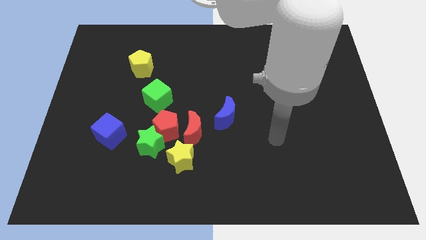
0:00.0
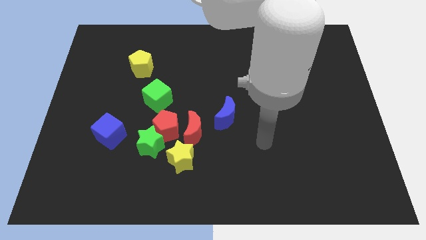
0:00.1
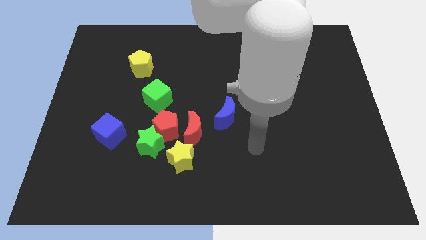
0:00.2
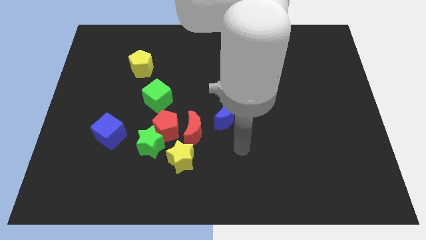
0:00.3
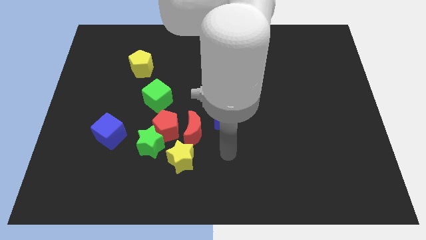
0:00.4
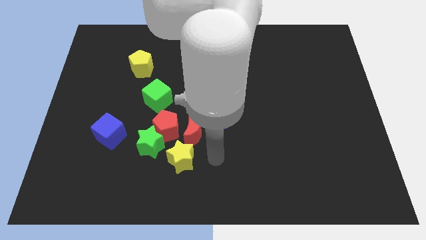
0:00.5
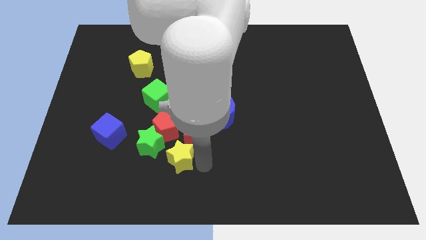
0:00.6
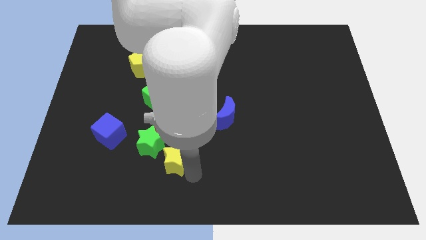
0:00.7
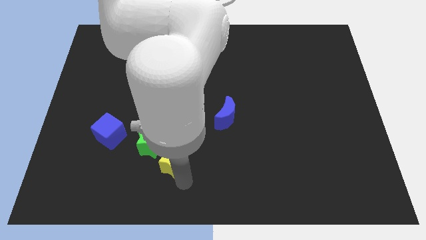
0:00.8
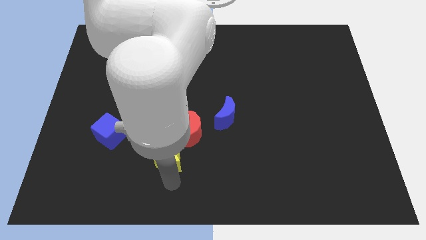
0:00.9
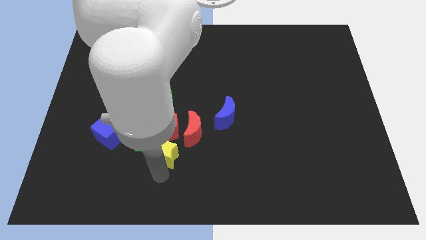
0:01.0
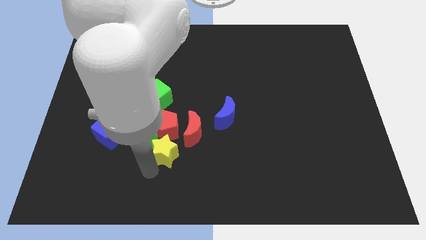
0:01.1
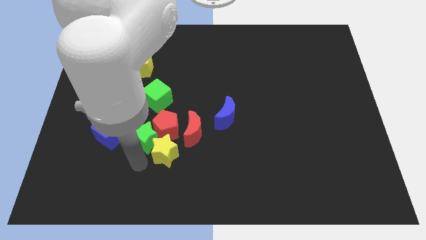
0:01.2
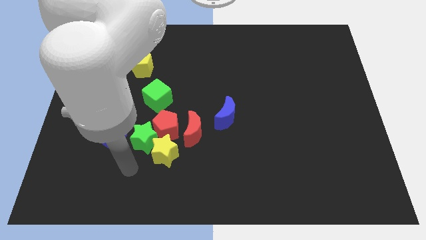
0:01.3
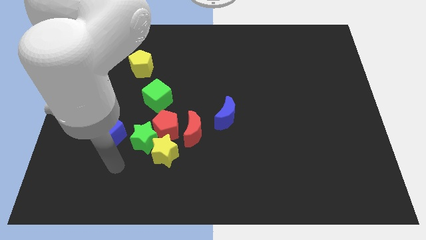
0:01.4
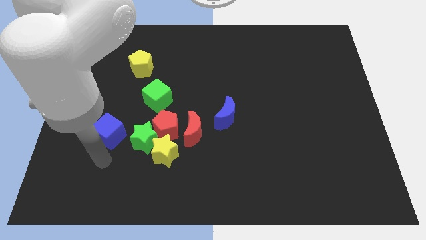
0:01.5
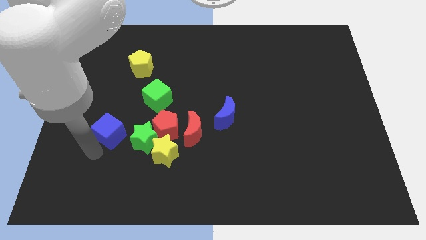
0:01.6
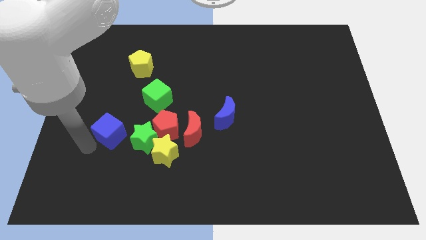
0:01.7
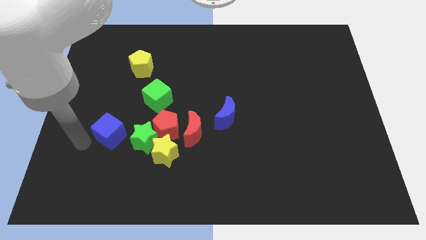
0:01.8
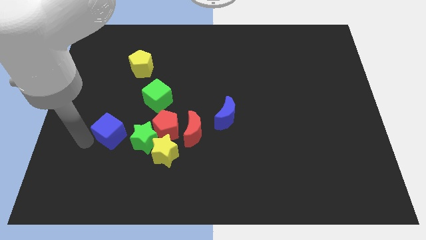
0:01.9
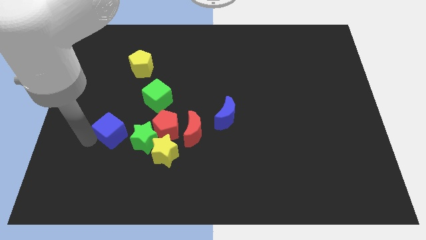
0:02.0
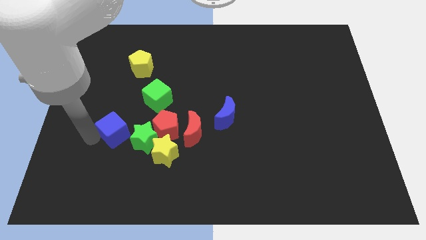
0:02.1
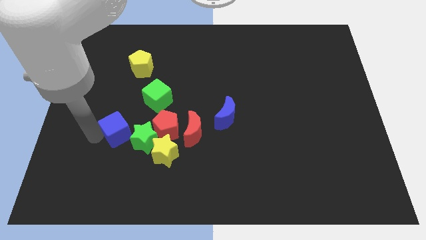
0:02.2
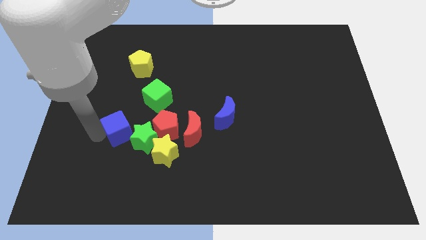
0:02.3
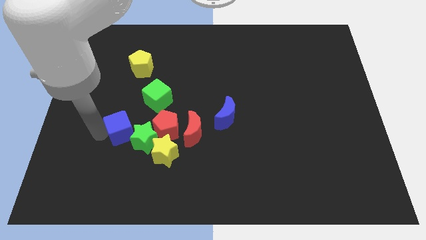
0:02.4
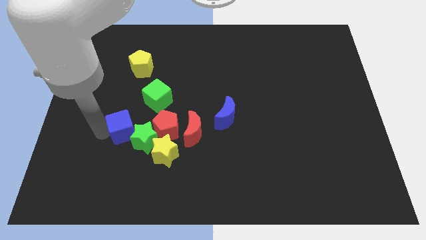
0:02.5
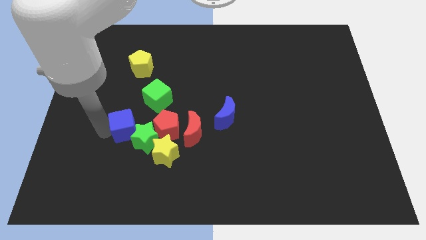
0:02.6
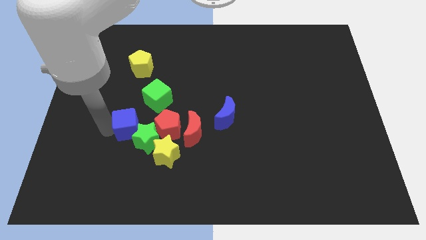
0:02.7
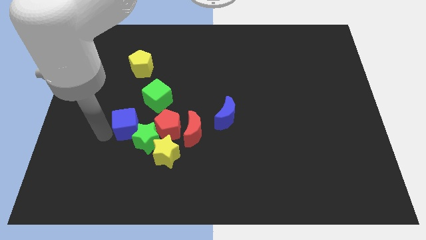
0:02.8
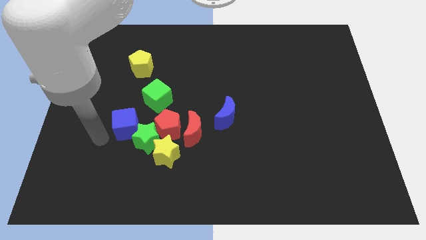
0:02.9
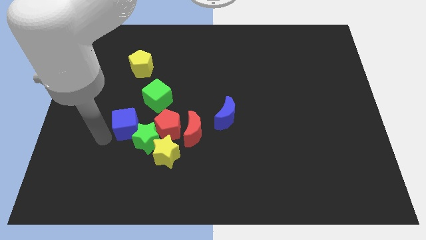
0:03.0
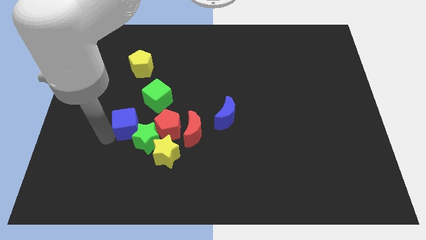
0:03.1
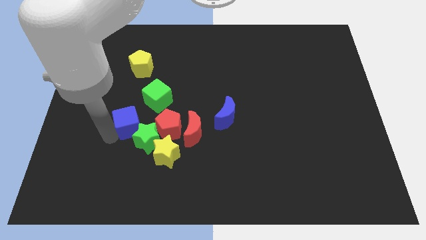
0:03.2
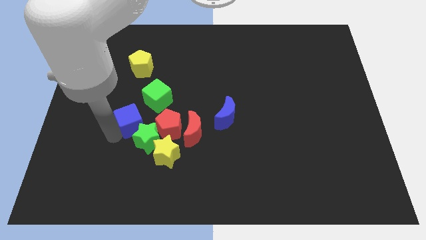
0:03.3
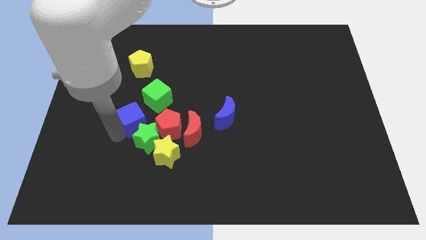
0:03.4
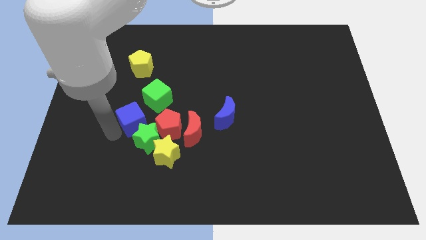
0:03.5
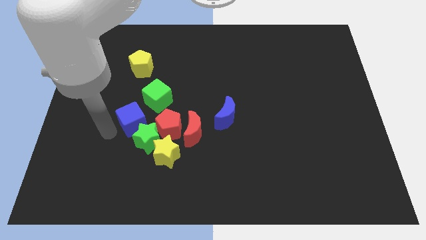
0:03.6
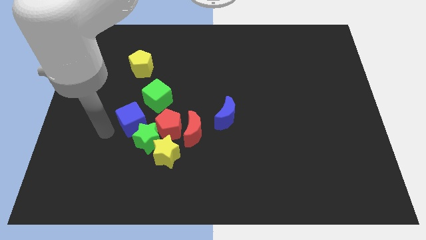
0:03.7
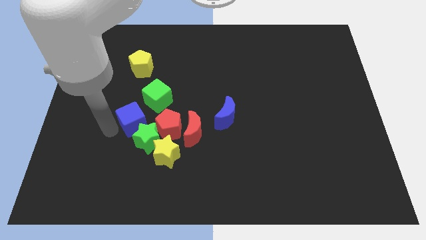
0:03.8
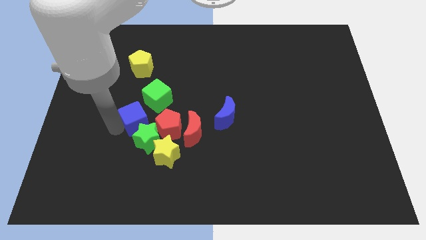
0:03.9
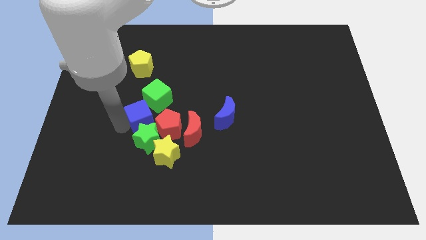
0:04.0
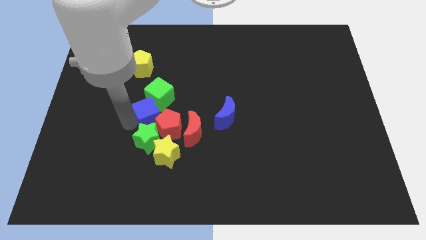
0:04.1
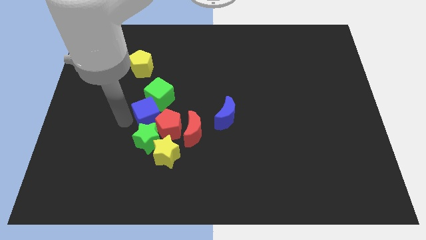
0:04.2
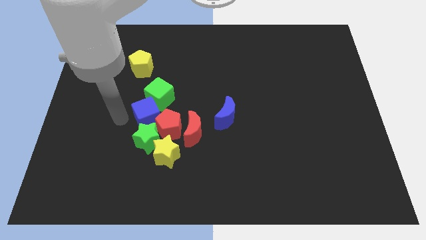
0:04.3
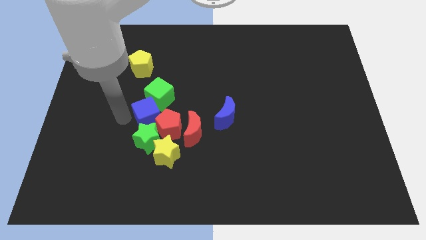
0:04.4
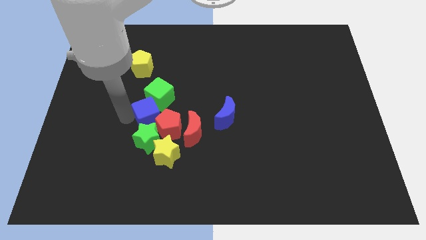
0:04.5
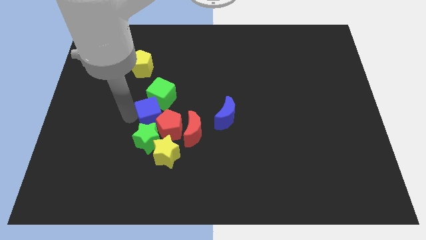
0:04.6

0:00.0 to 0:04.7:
put the blue cube to the top side of the yellow star

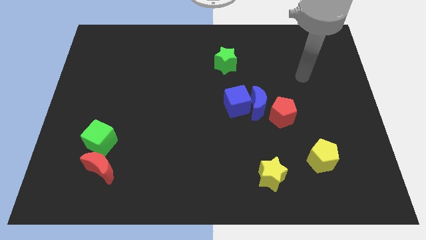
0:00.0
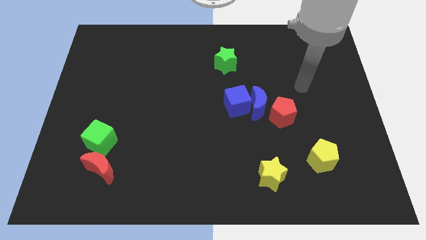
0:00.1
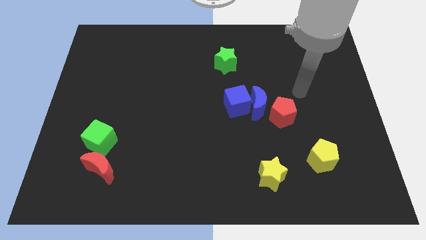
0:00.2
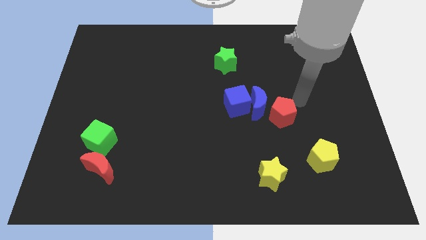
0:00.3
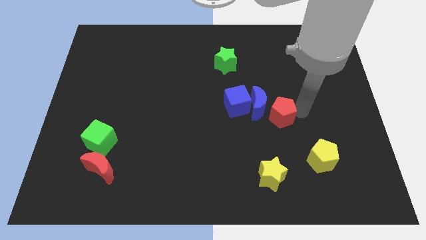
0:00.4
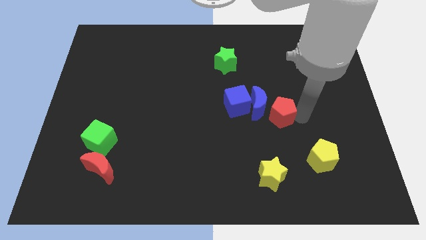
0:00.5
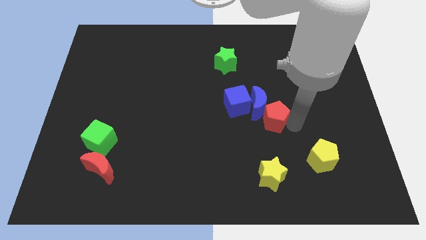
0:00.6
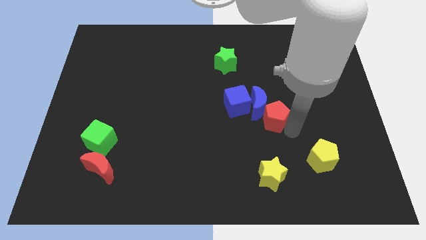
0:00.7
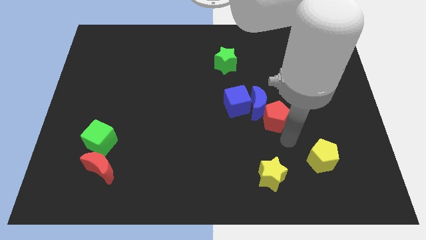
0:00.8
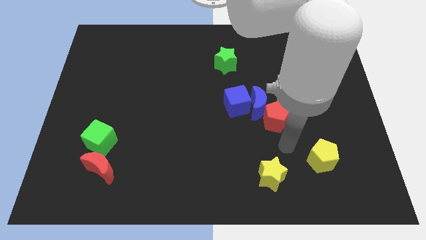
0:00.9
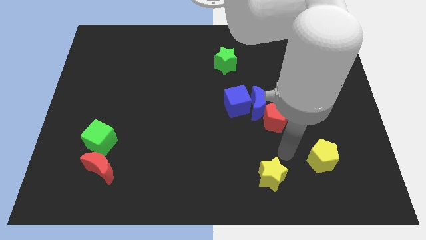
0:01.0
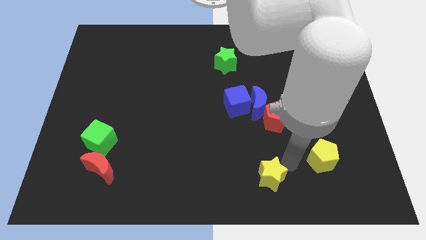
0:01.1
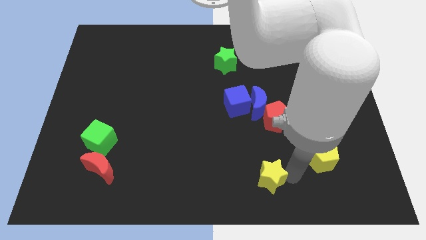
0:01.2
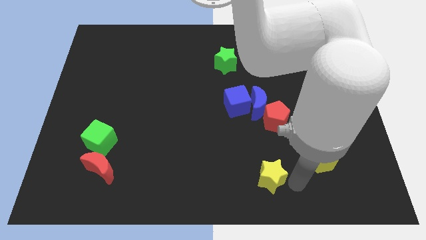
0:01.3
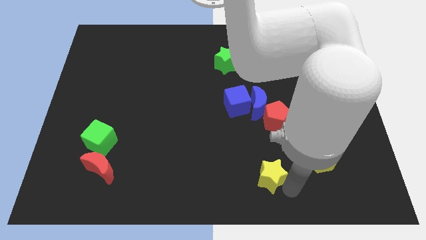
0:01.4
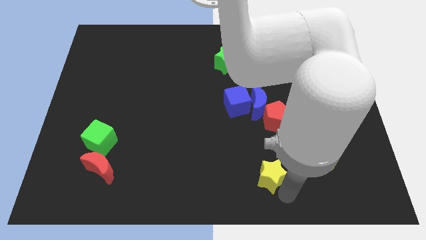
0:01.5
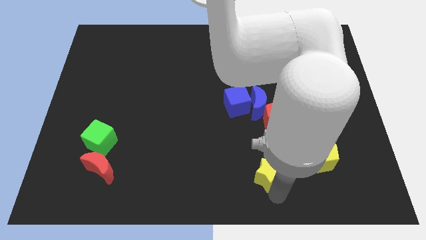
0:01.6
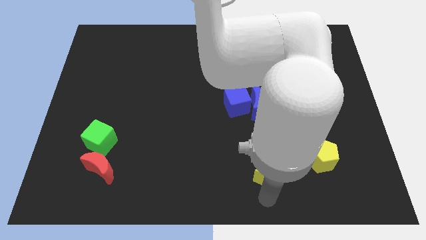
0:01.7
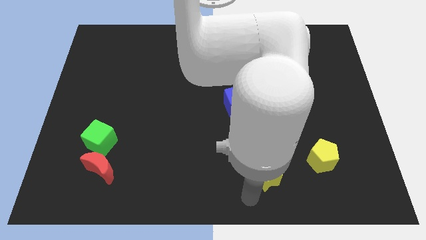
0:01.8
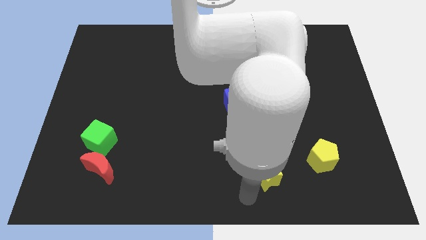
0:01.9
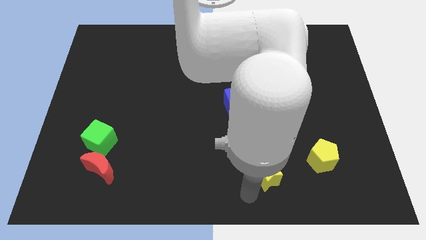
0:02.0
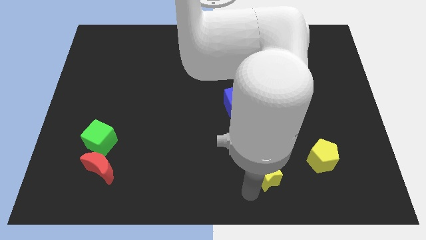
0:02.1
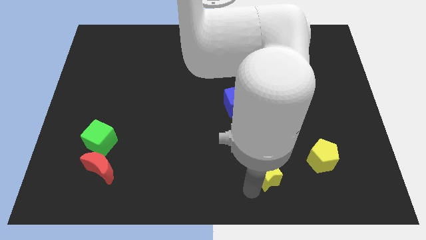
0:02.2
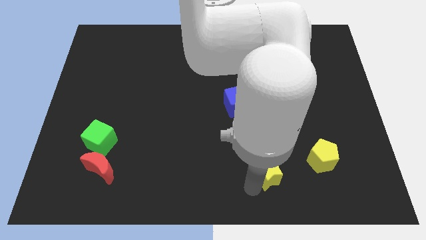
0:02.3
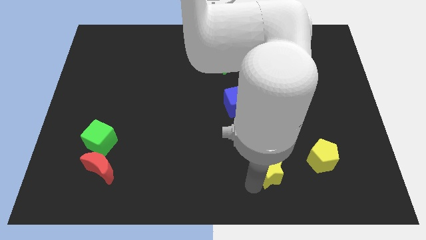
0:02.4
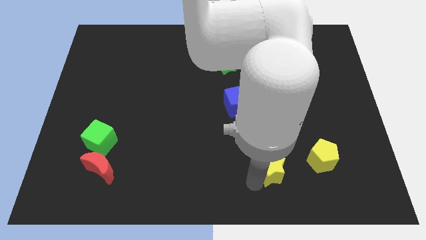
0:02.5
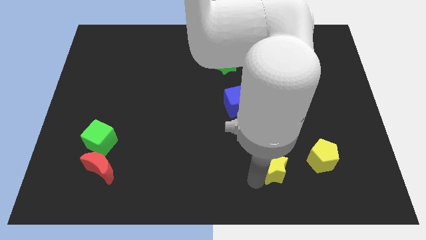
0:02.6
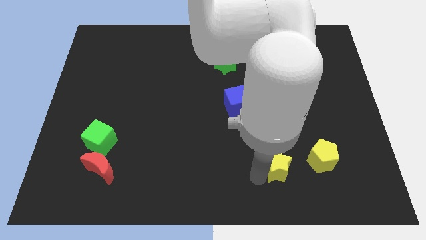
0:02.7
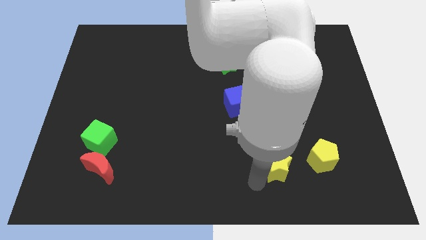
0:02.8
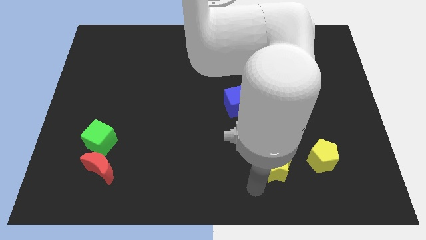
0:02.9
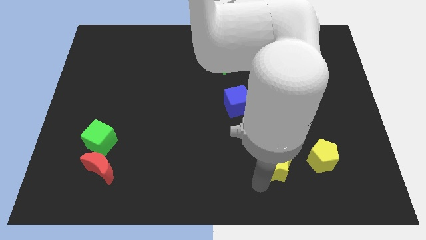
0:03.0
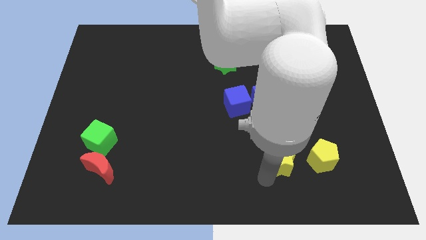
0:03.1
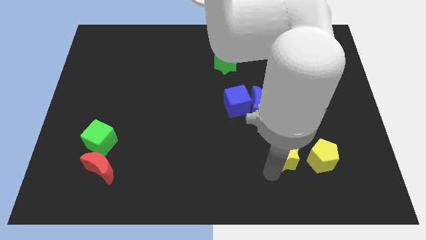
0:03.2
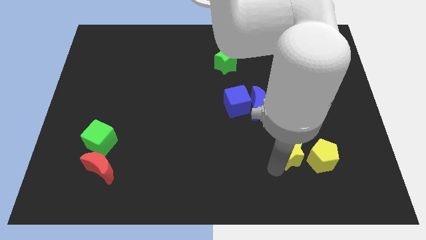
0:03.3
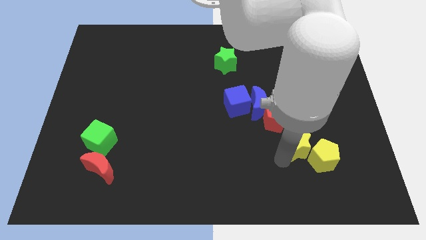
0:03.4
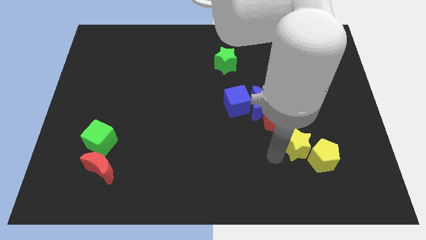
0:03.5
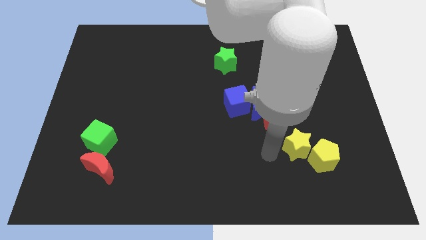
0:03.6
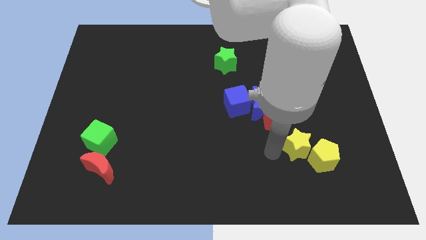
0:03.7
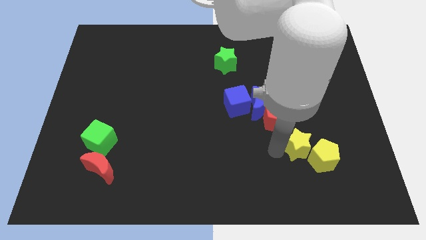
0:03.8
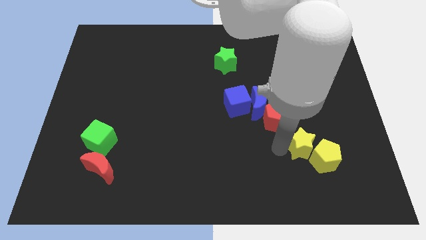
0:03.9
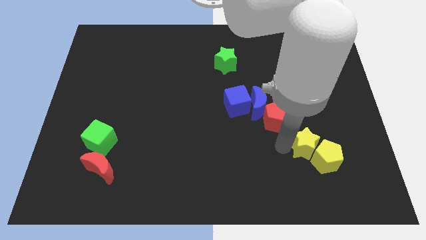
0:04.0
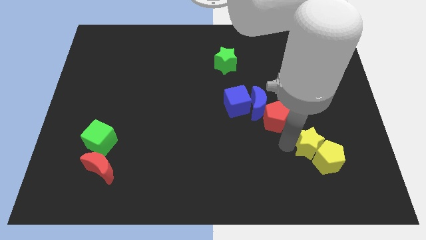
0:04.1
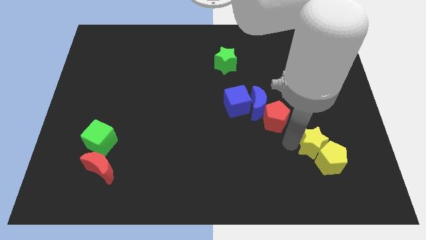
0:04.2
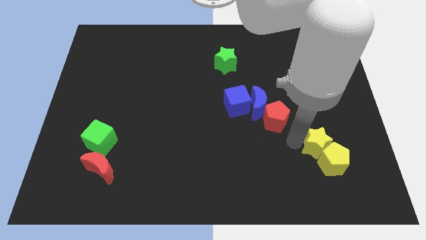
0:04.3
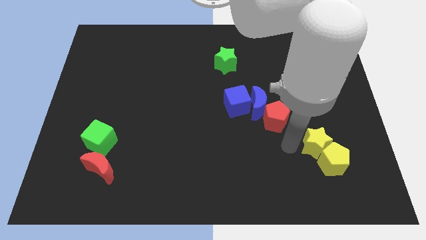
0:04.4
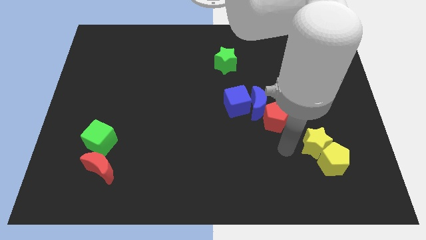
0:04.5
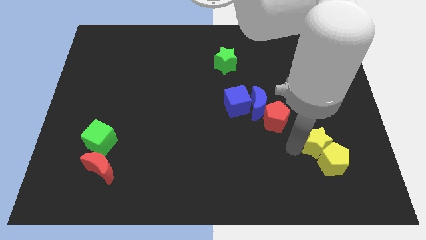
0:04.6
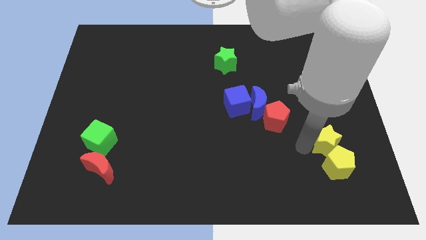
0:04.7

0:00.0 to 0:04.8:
put the yellow star to the top right side of the yellow pentagon
